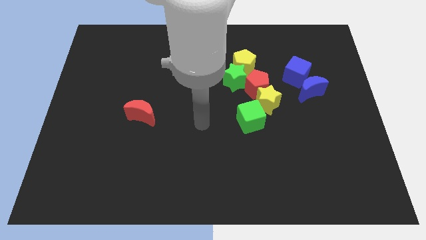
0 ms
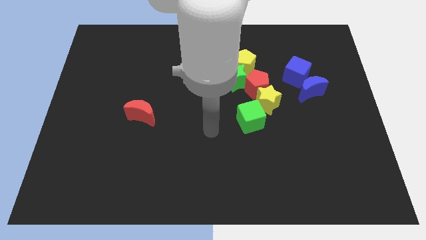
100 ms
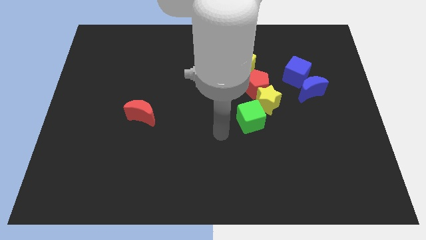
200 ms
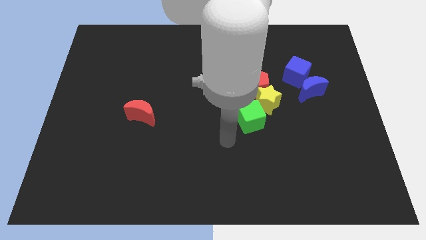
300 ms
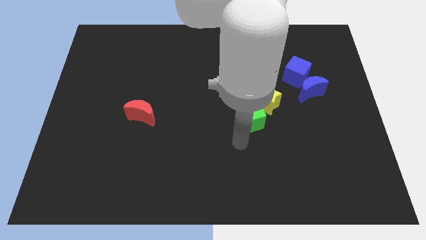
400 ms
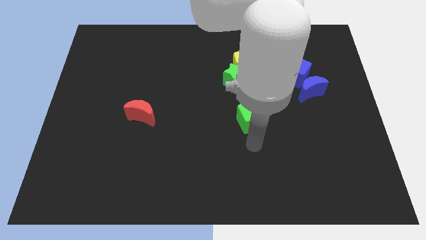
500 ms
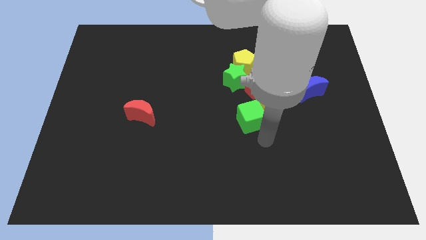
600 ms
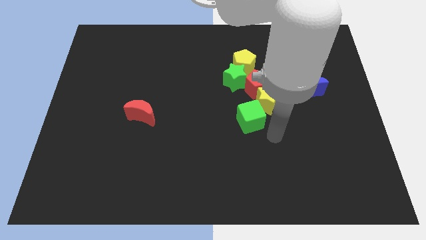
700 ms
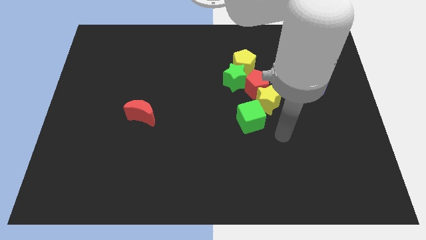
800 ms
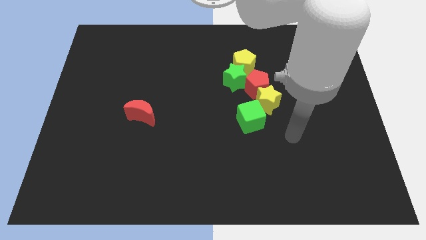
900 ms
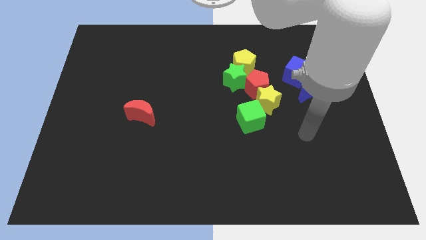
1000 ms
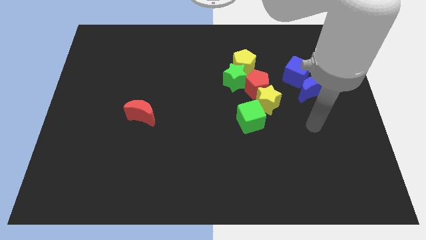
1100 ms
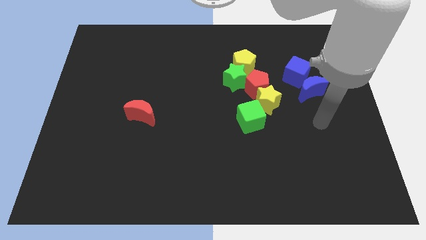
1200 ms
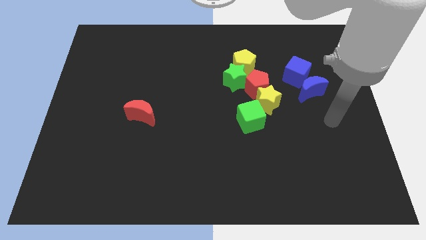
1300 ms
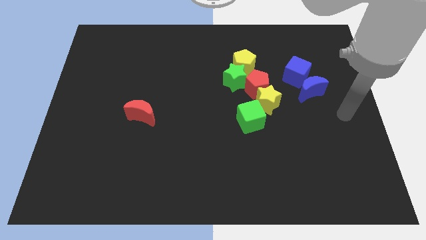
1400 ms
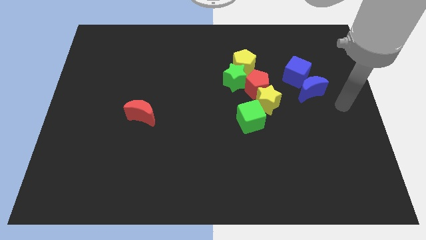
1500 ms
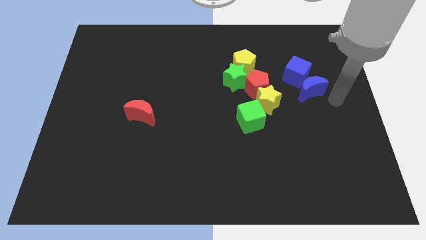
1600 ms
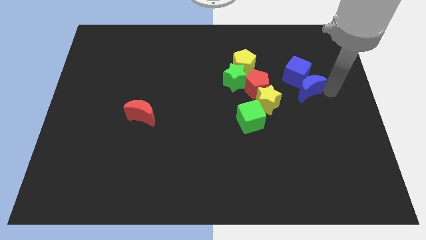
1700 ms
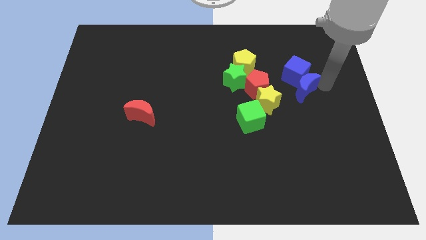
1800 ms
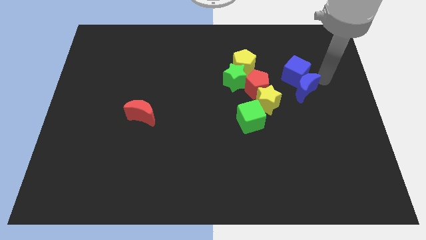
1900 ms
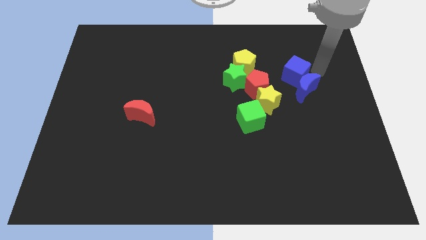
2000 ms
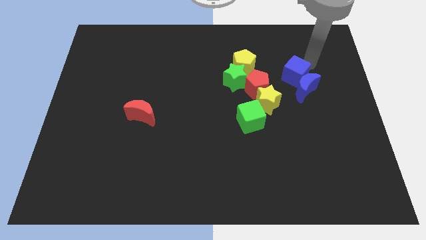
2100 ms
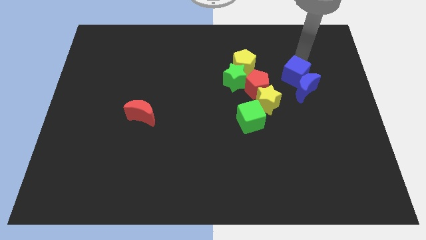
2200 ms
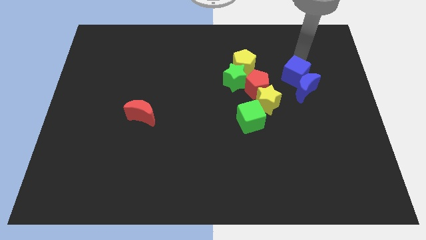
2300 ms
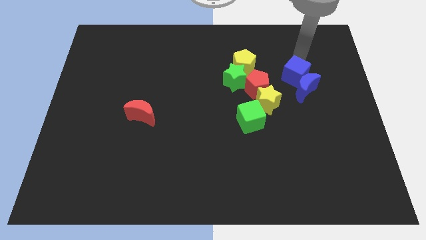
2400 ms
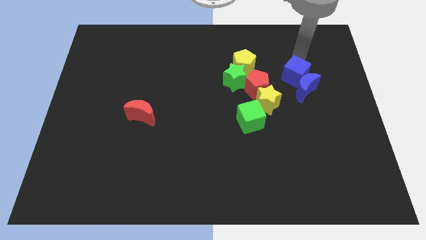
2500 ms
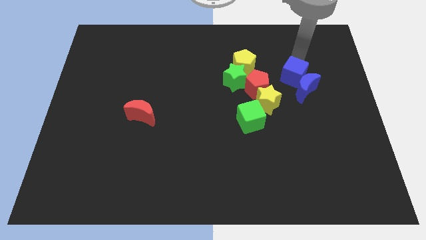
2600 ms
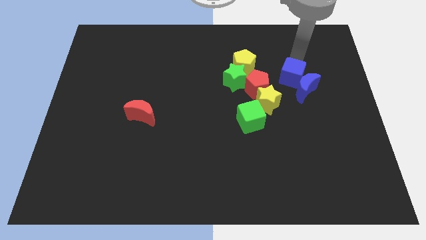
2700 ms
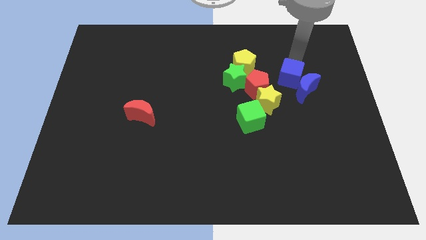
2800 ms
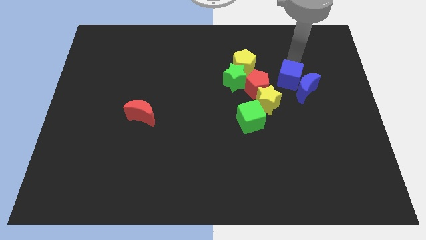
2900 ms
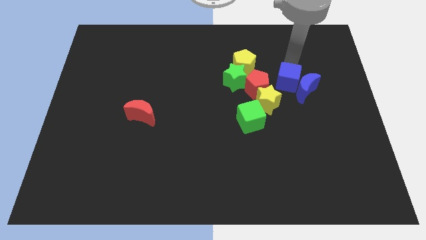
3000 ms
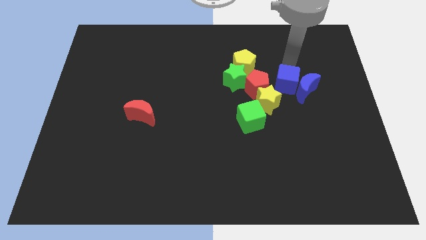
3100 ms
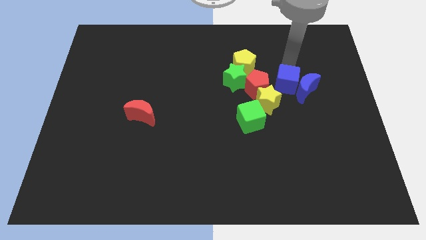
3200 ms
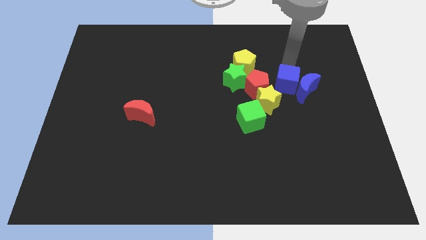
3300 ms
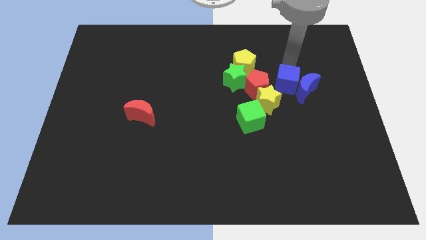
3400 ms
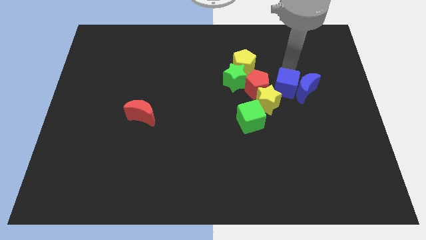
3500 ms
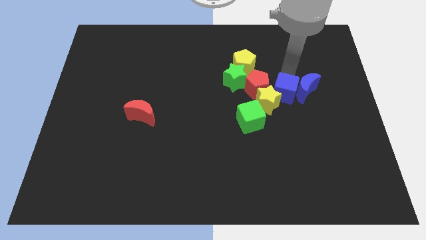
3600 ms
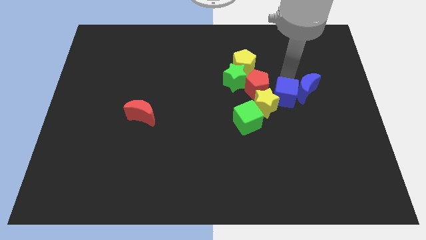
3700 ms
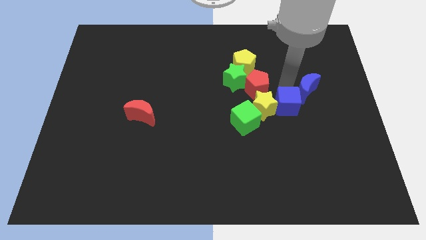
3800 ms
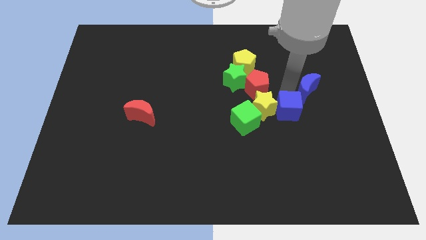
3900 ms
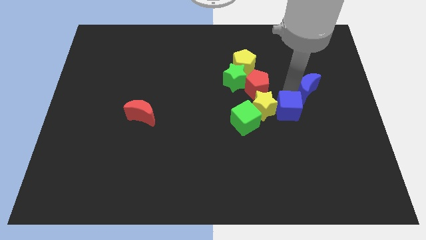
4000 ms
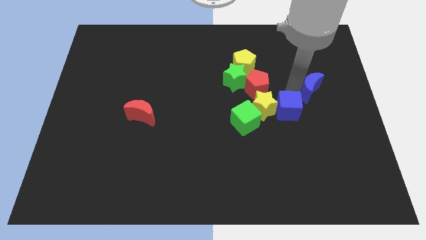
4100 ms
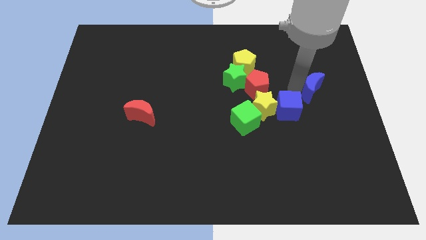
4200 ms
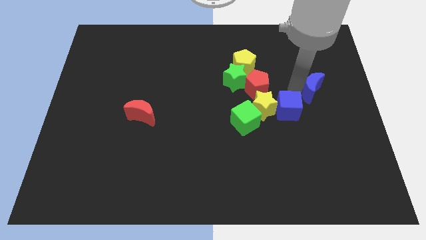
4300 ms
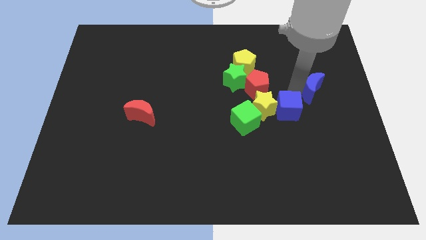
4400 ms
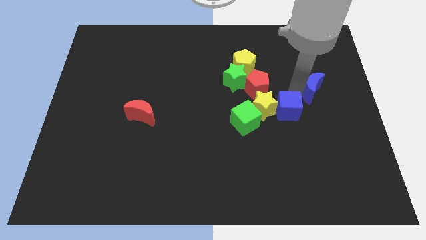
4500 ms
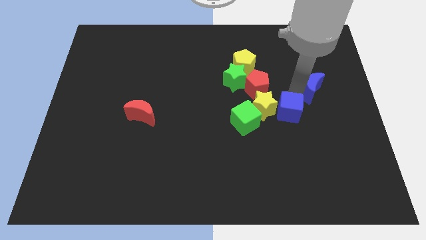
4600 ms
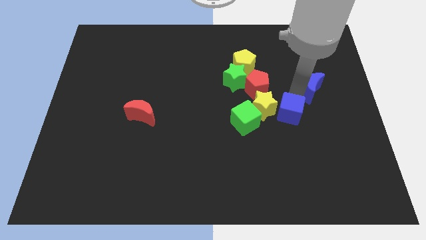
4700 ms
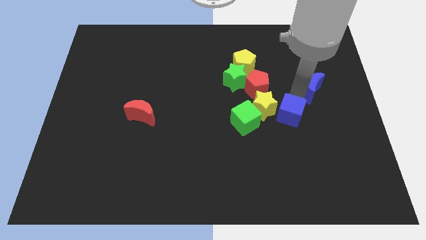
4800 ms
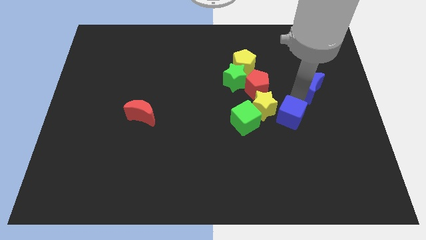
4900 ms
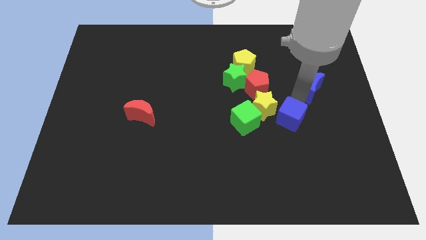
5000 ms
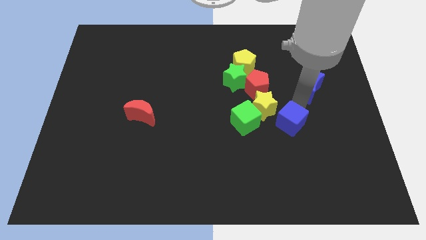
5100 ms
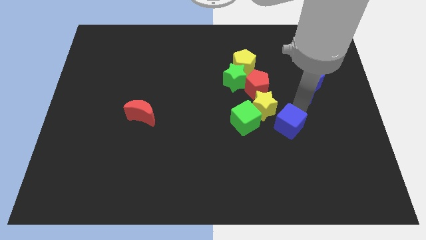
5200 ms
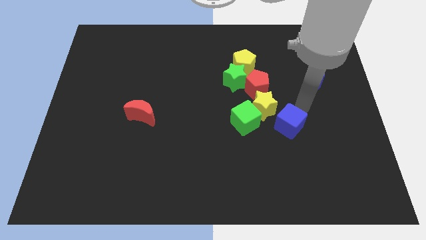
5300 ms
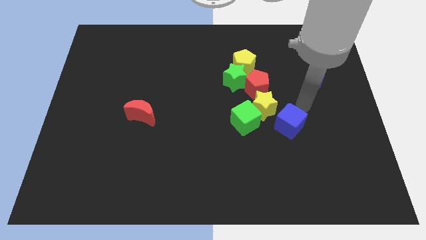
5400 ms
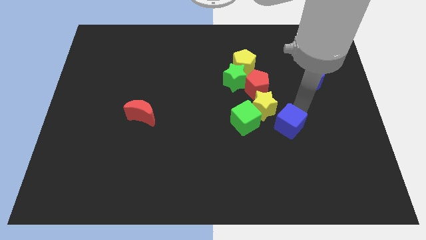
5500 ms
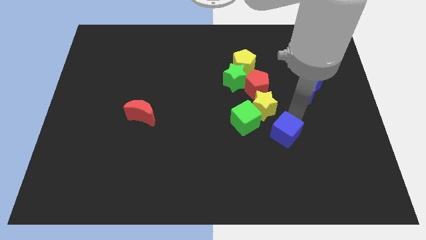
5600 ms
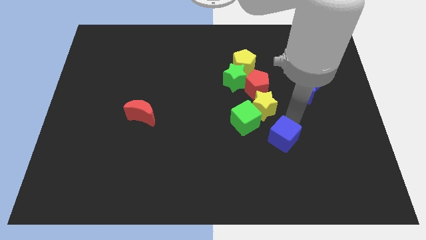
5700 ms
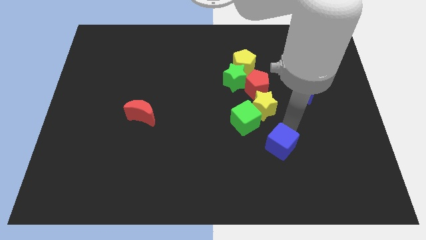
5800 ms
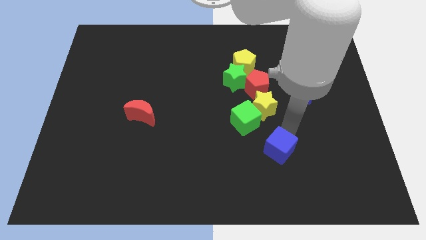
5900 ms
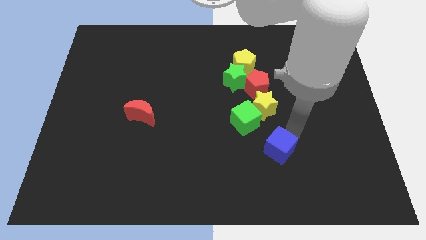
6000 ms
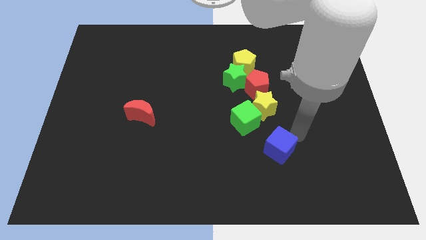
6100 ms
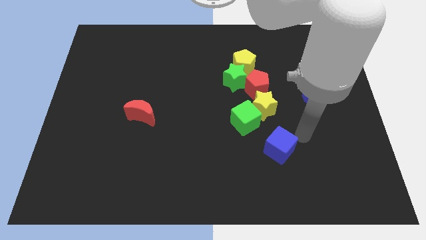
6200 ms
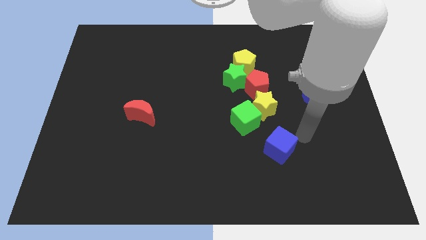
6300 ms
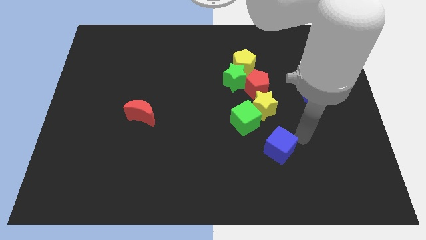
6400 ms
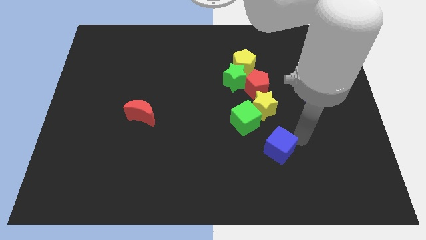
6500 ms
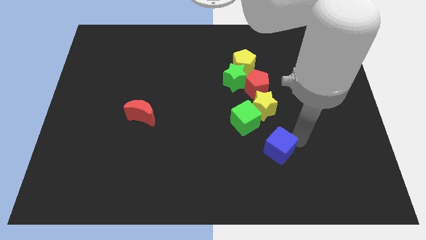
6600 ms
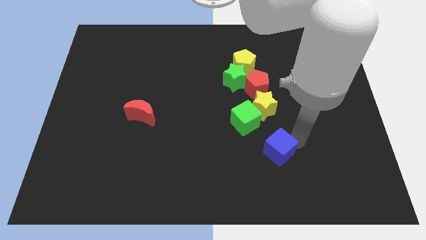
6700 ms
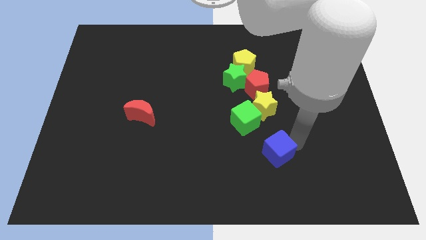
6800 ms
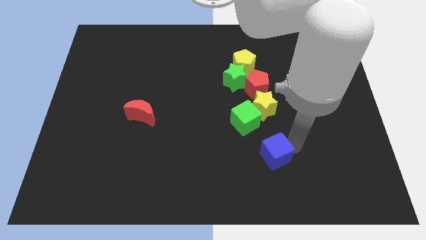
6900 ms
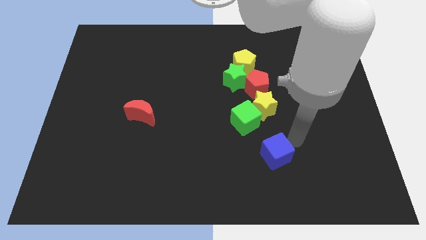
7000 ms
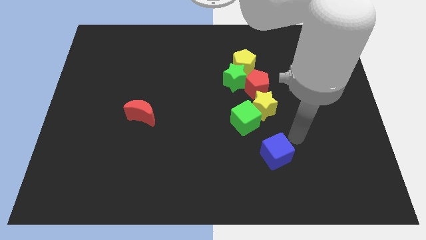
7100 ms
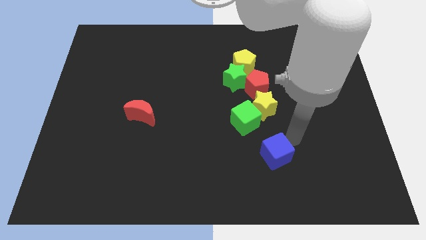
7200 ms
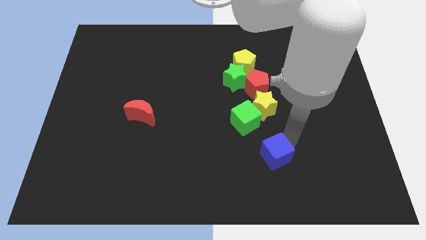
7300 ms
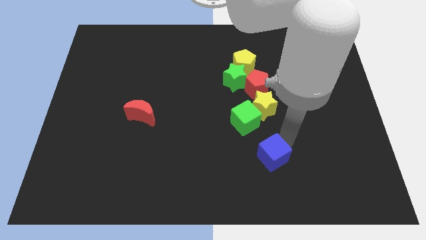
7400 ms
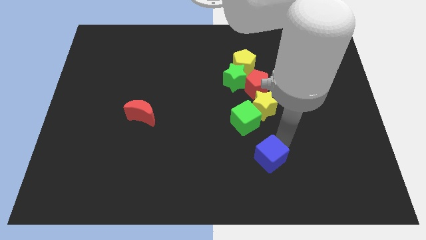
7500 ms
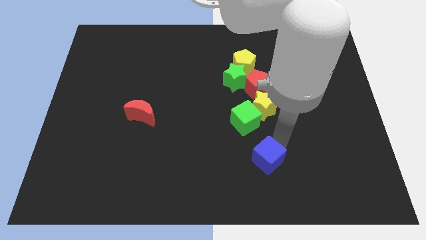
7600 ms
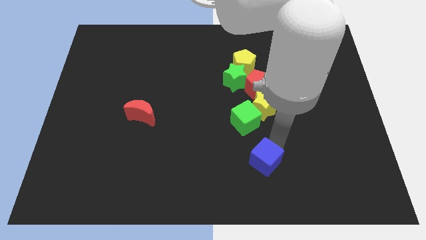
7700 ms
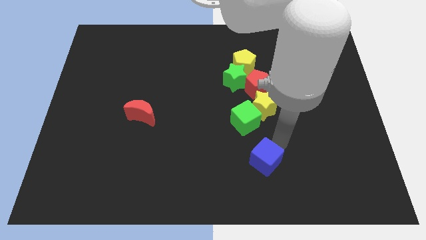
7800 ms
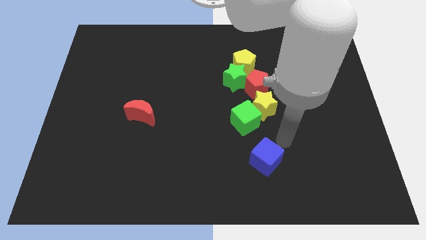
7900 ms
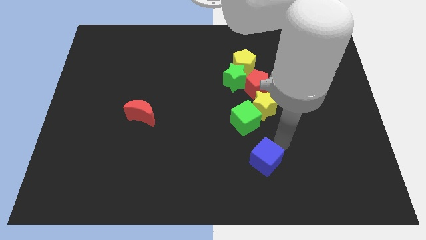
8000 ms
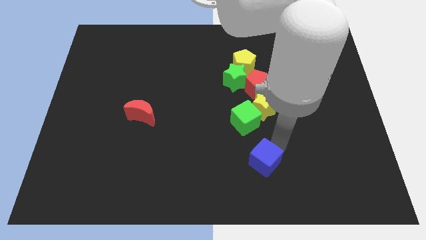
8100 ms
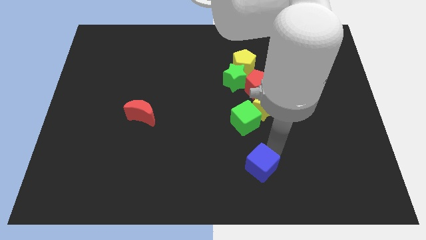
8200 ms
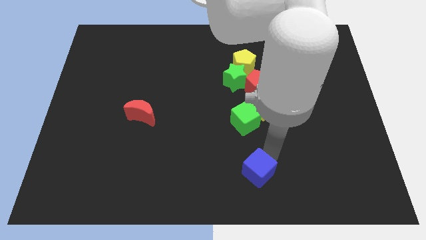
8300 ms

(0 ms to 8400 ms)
slide the blue cube to the bottom side
